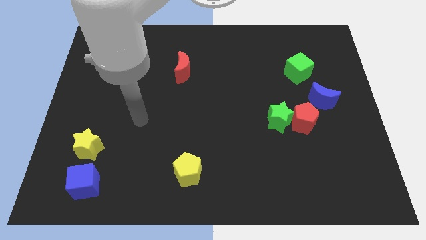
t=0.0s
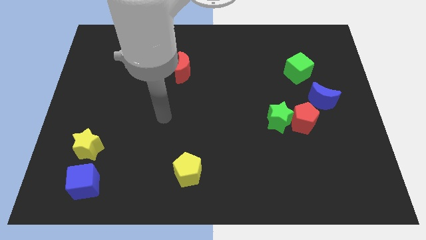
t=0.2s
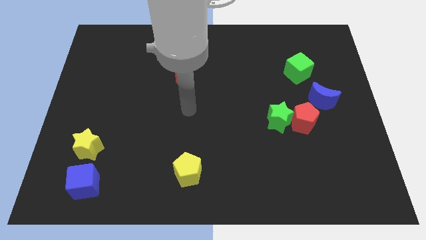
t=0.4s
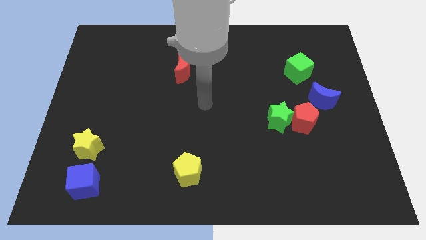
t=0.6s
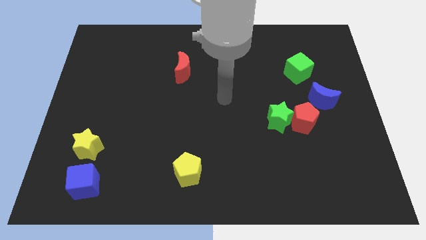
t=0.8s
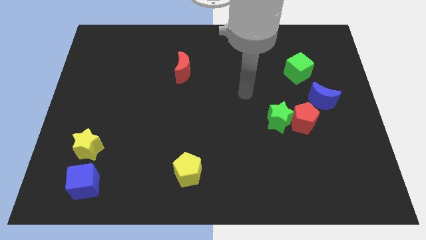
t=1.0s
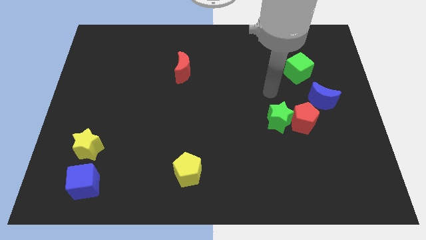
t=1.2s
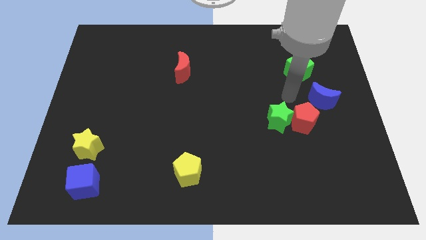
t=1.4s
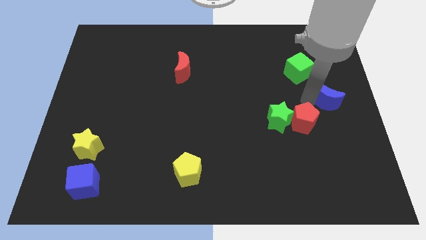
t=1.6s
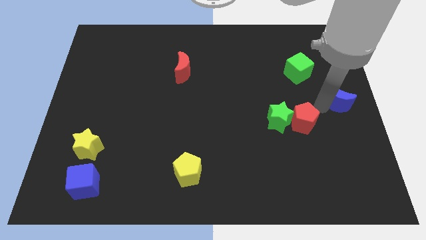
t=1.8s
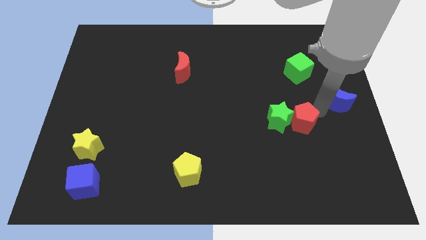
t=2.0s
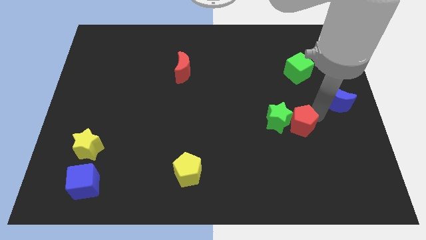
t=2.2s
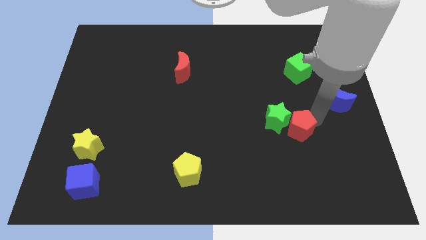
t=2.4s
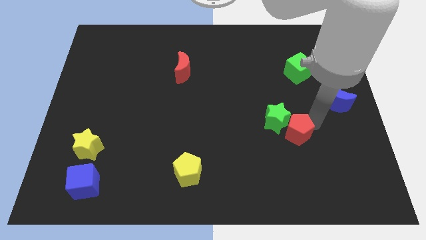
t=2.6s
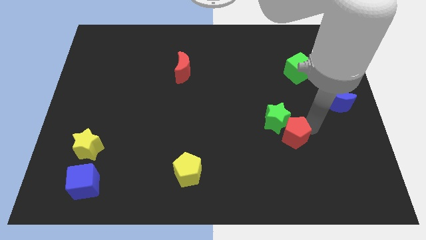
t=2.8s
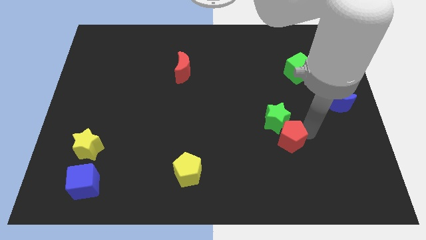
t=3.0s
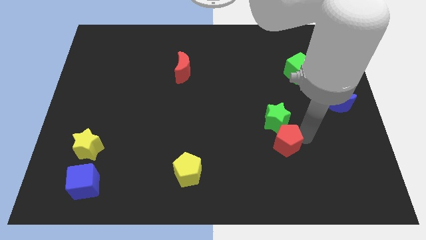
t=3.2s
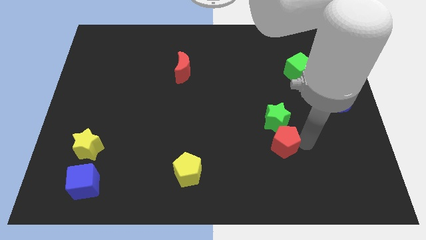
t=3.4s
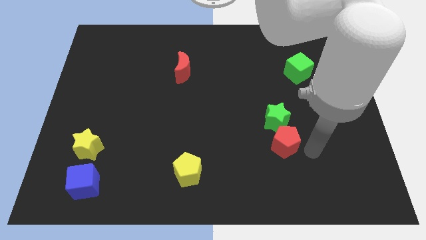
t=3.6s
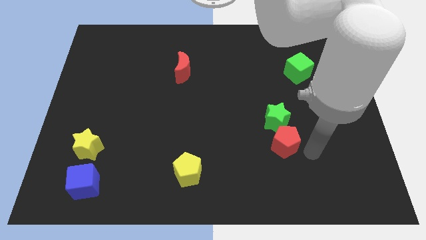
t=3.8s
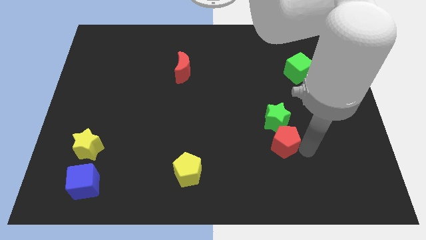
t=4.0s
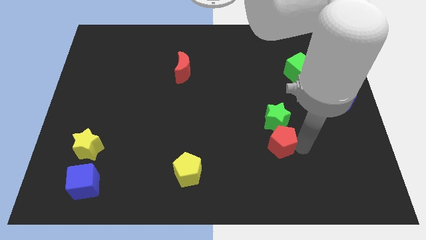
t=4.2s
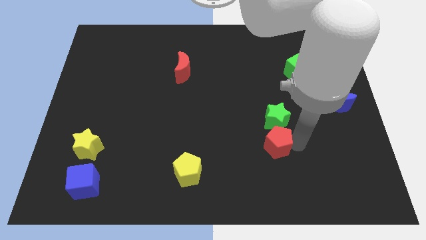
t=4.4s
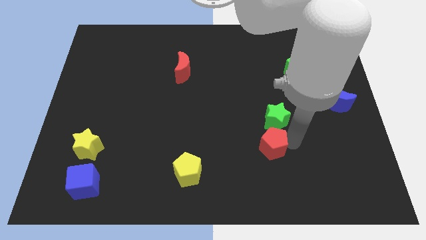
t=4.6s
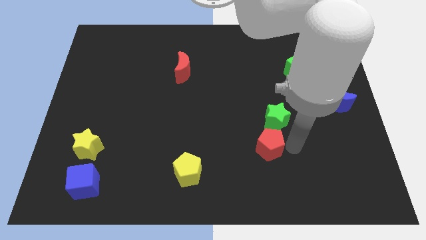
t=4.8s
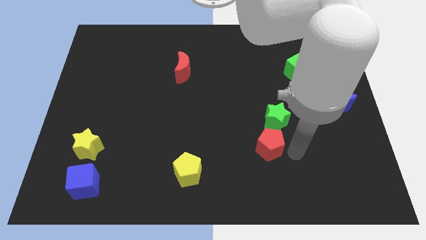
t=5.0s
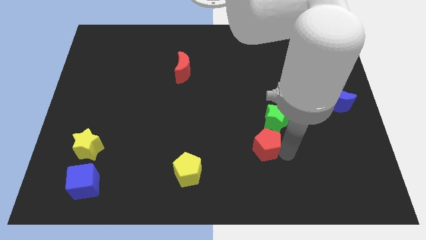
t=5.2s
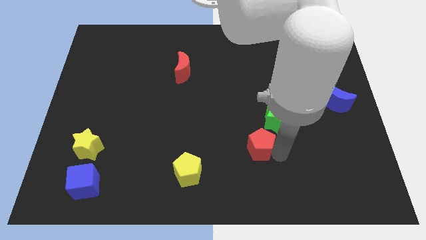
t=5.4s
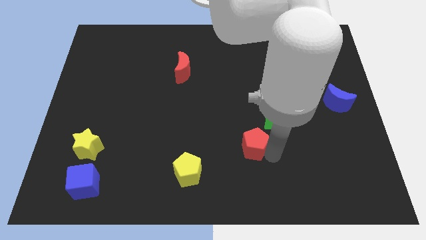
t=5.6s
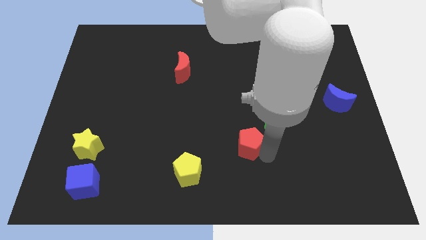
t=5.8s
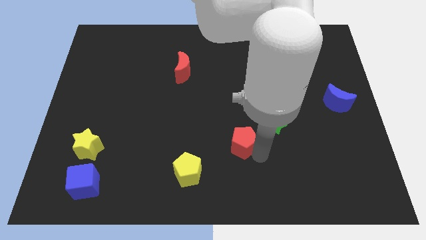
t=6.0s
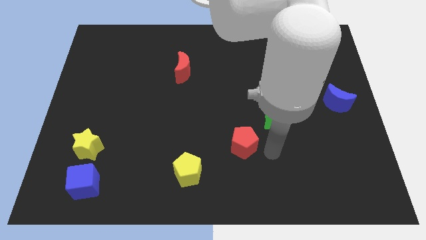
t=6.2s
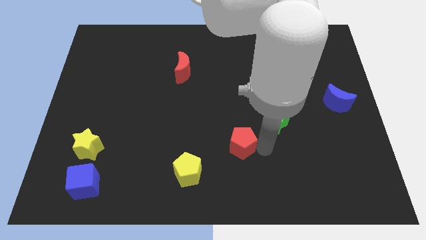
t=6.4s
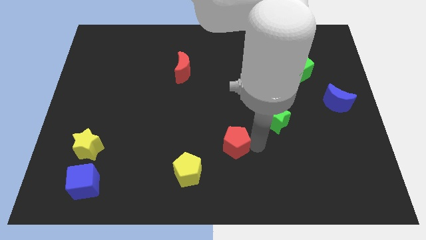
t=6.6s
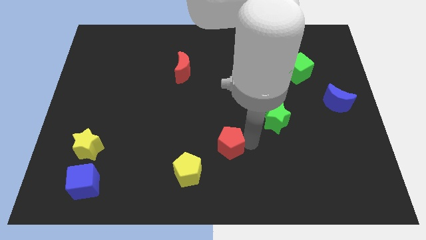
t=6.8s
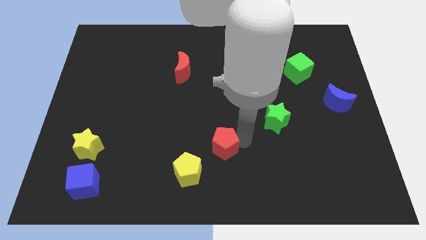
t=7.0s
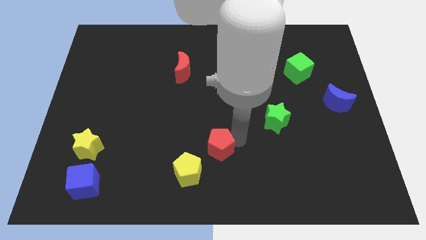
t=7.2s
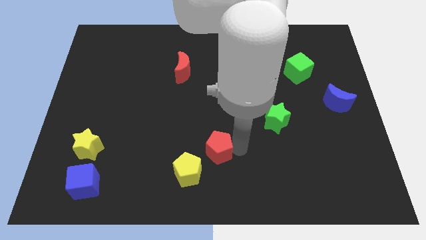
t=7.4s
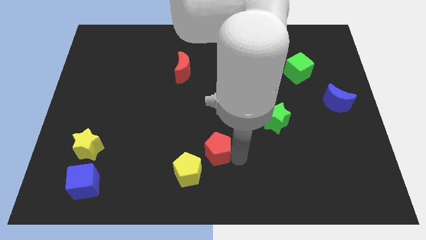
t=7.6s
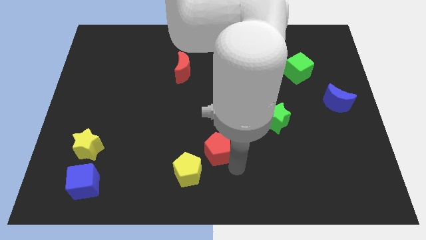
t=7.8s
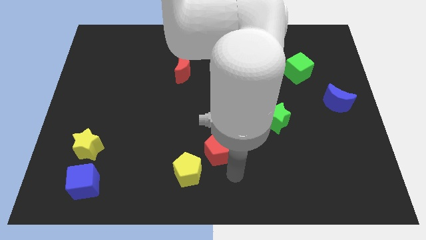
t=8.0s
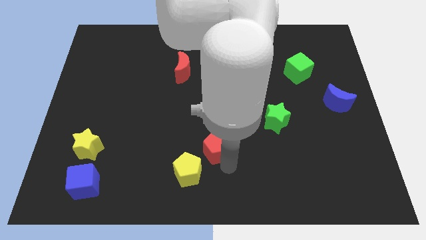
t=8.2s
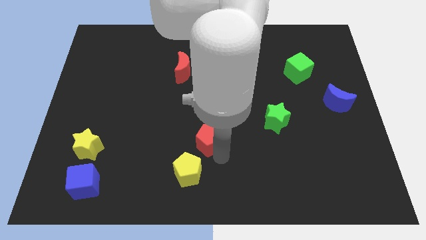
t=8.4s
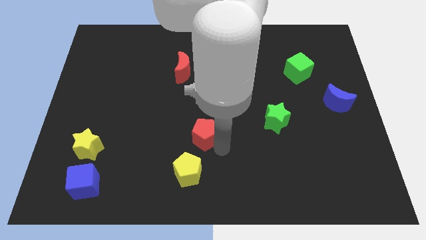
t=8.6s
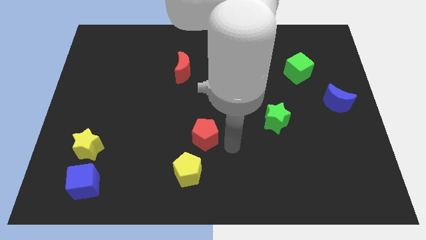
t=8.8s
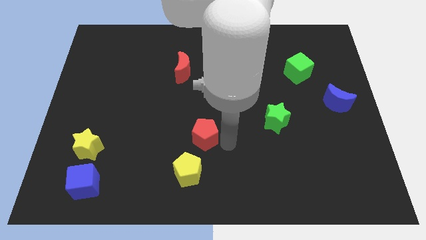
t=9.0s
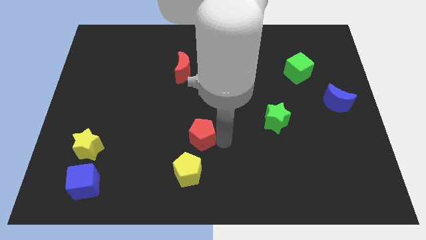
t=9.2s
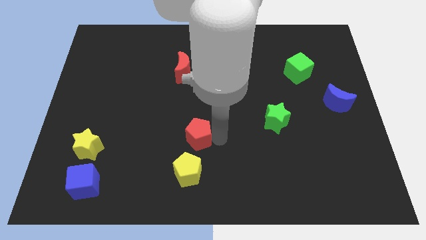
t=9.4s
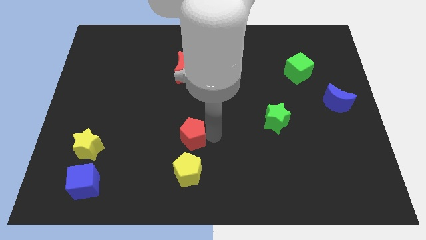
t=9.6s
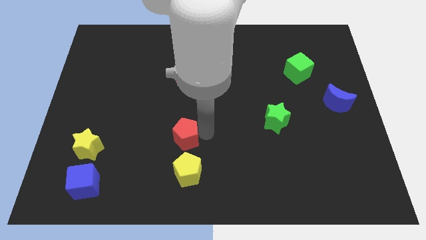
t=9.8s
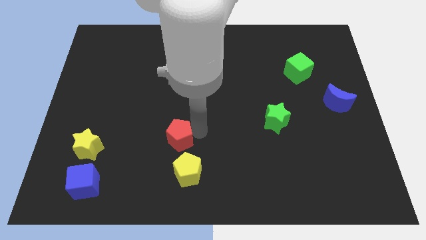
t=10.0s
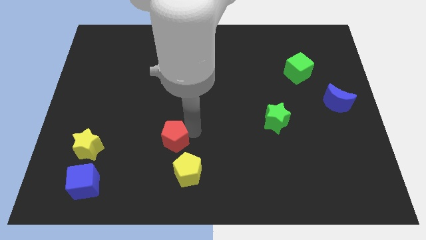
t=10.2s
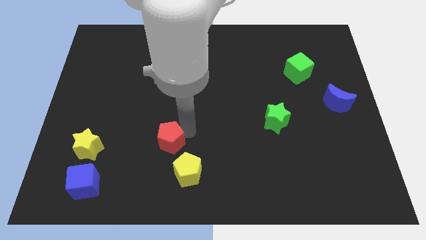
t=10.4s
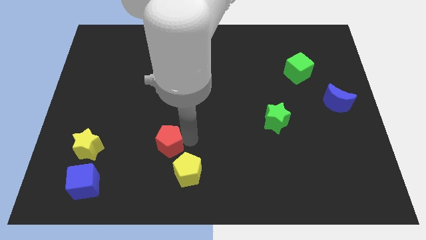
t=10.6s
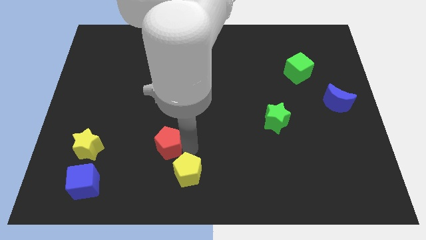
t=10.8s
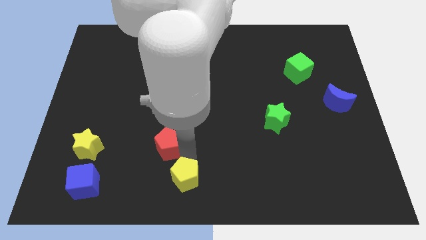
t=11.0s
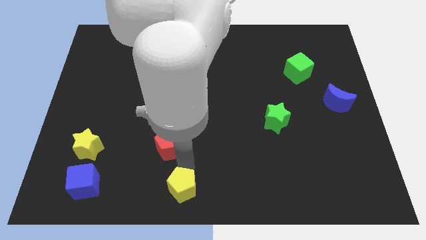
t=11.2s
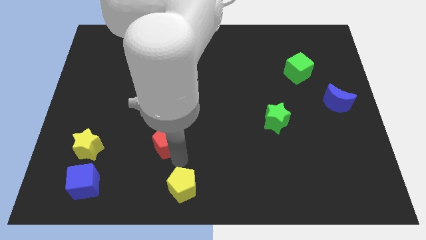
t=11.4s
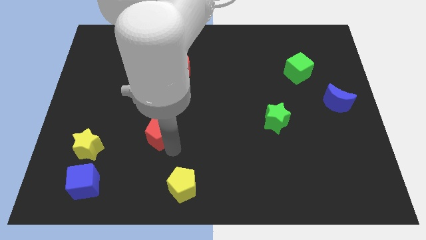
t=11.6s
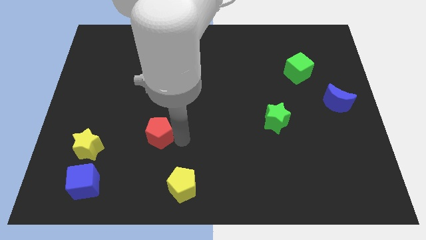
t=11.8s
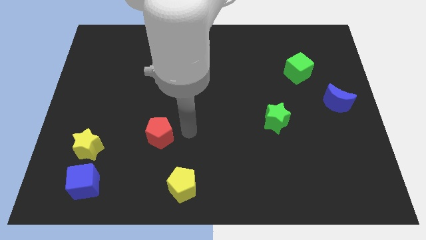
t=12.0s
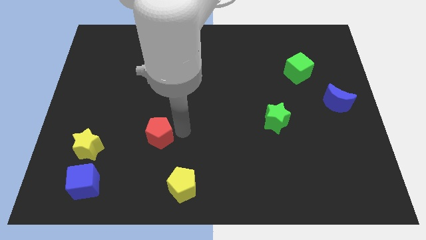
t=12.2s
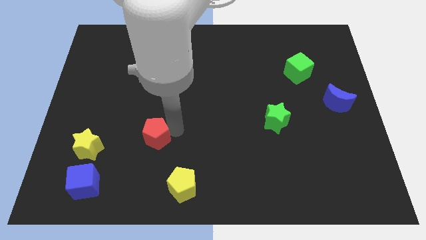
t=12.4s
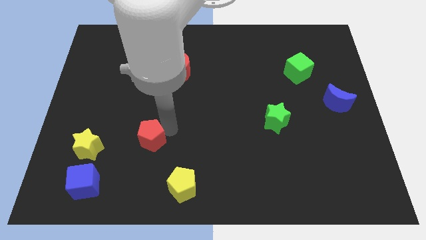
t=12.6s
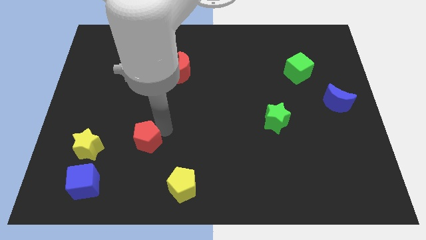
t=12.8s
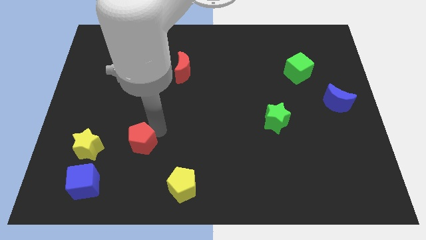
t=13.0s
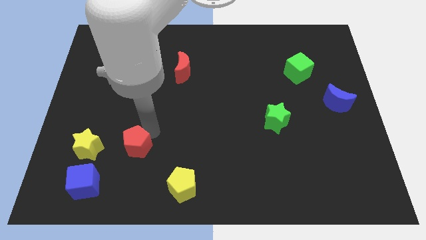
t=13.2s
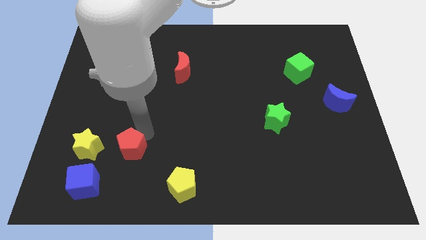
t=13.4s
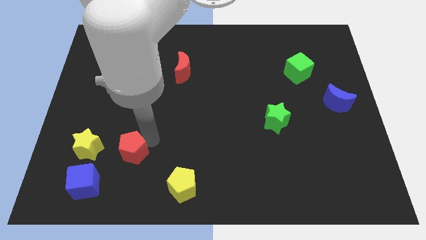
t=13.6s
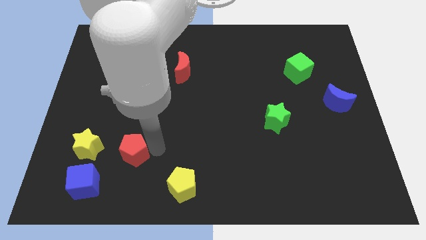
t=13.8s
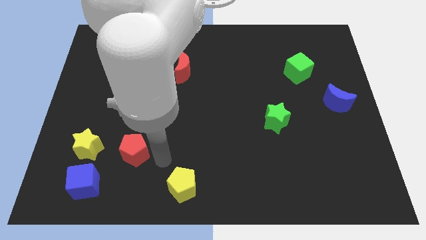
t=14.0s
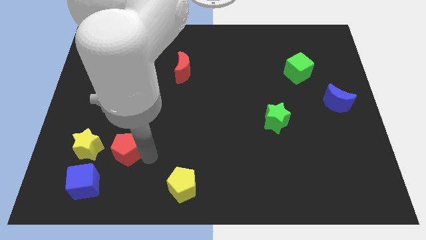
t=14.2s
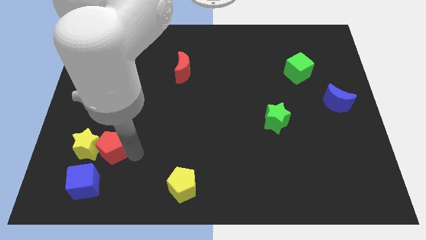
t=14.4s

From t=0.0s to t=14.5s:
push the red pentagon next to the yellow star
